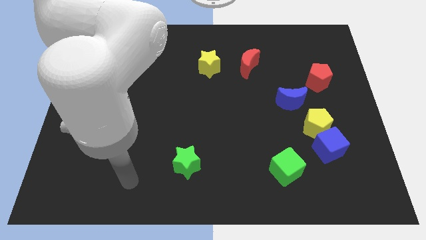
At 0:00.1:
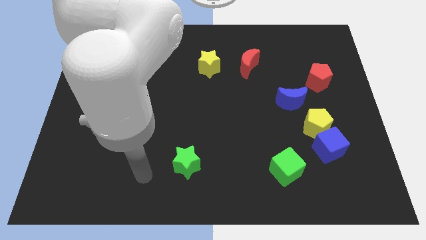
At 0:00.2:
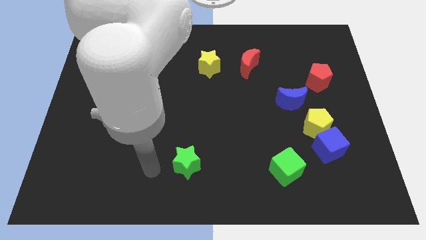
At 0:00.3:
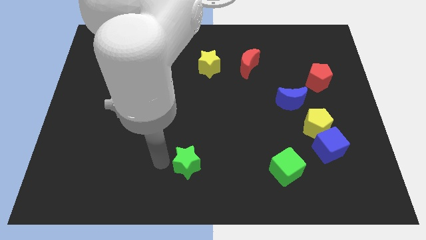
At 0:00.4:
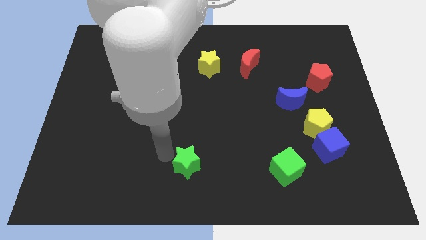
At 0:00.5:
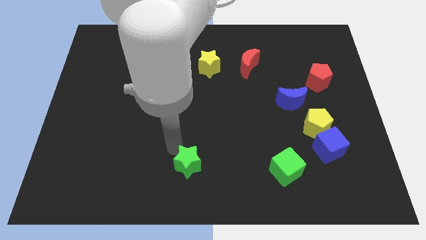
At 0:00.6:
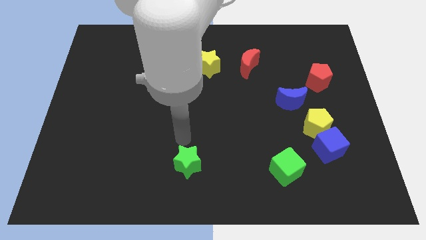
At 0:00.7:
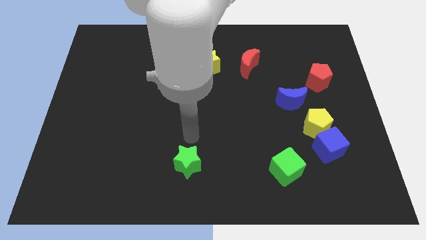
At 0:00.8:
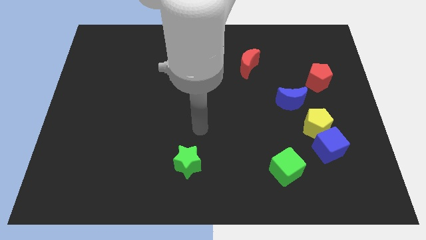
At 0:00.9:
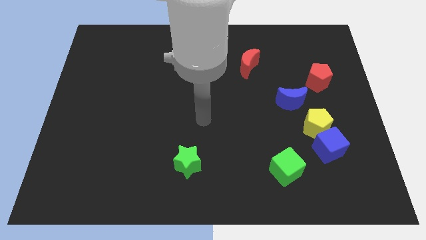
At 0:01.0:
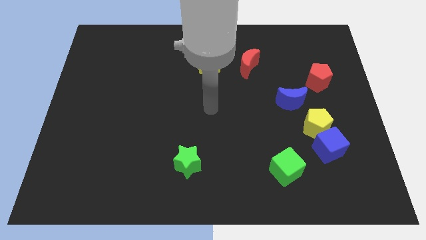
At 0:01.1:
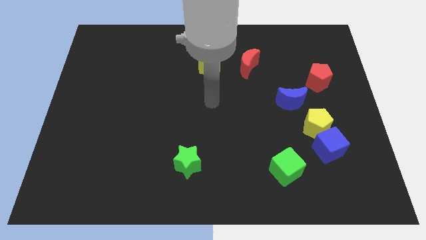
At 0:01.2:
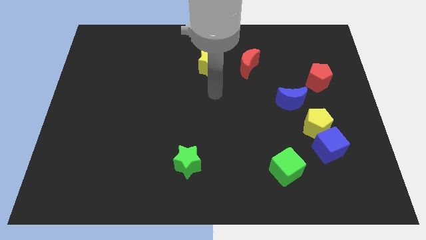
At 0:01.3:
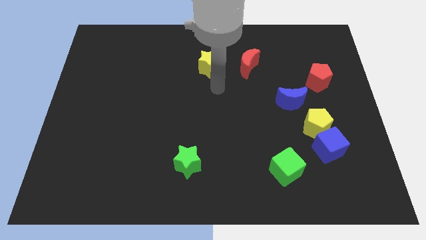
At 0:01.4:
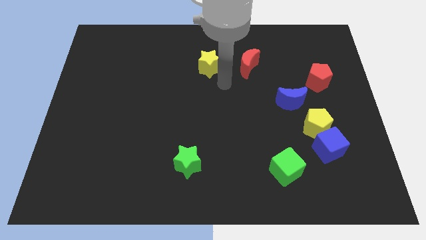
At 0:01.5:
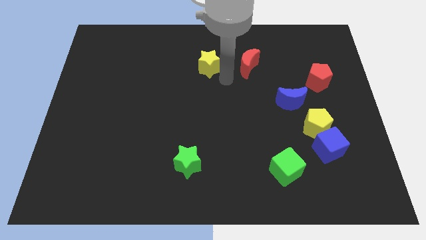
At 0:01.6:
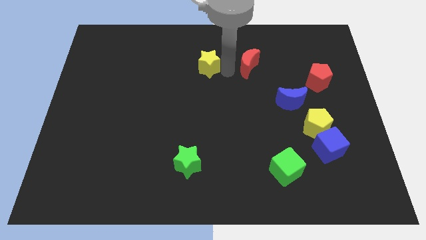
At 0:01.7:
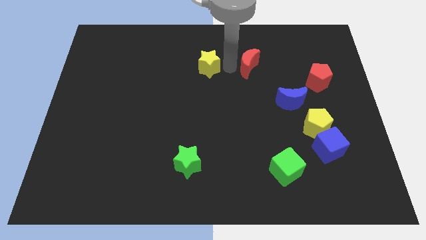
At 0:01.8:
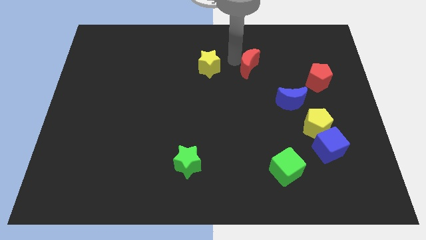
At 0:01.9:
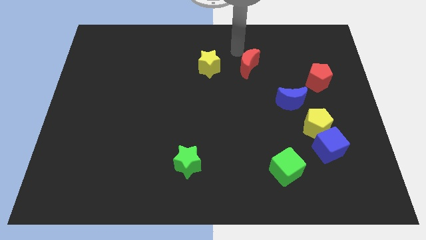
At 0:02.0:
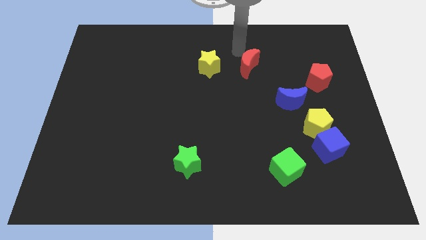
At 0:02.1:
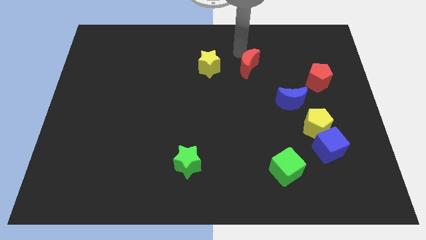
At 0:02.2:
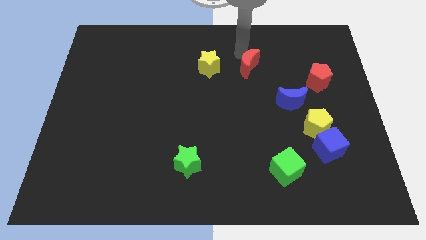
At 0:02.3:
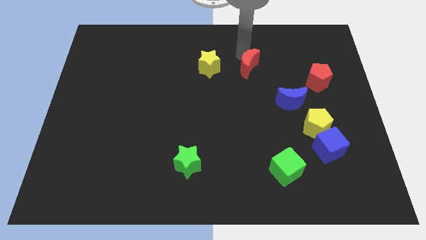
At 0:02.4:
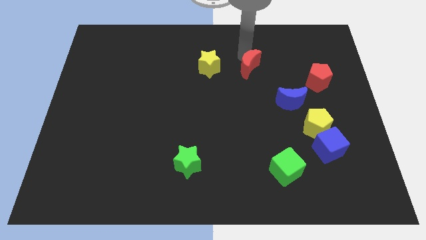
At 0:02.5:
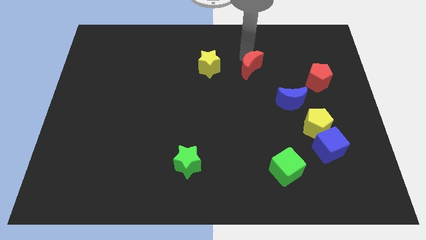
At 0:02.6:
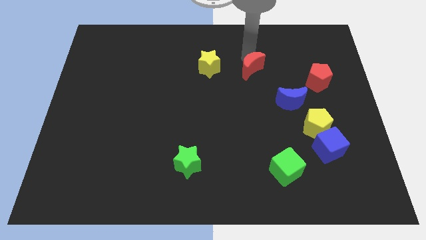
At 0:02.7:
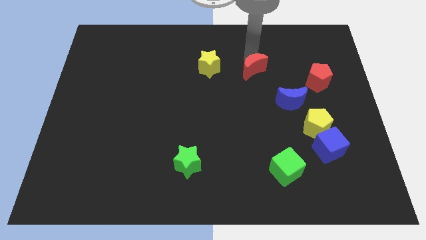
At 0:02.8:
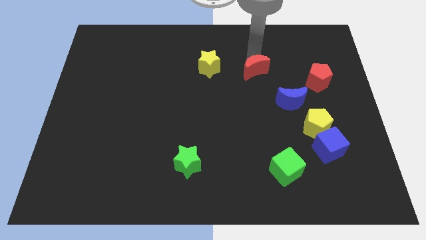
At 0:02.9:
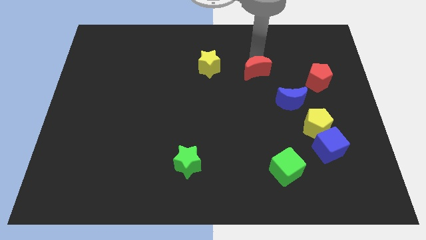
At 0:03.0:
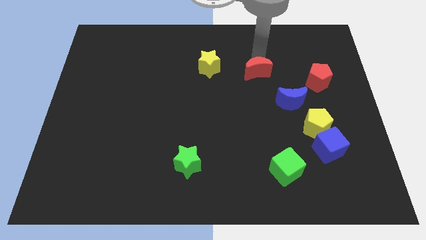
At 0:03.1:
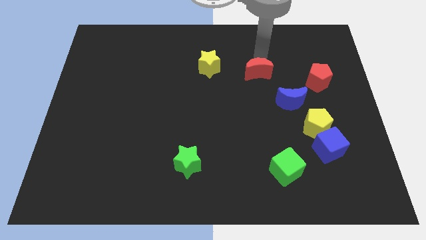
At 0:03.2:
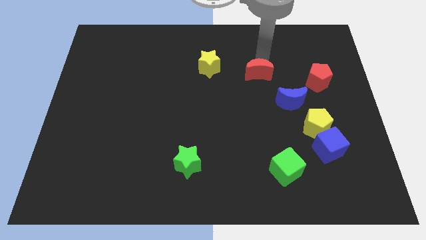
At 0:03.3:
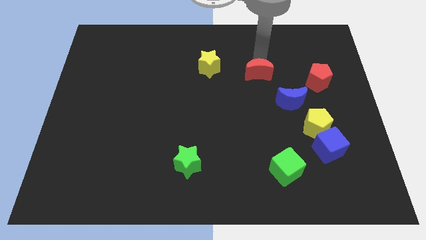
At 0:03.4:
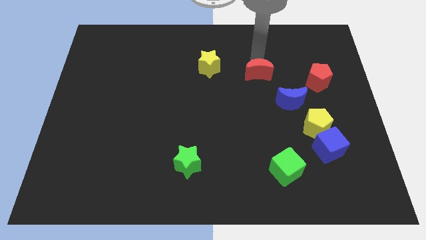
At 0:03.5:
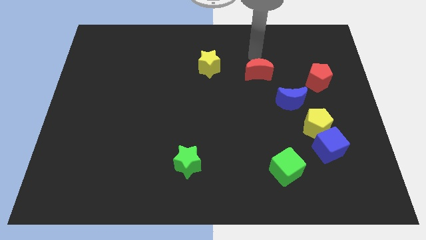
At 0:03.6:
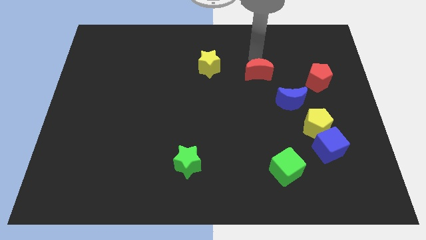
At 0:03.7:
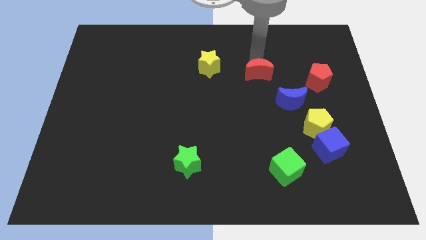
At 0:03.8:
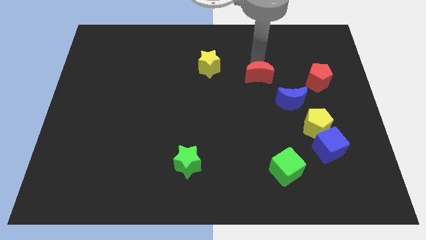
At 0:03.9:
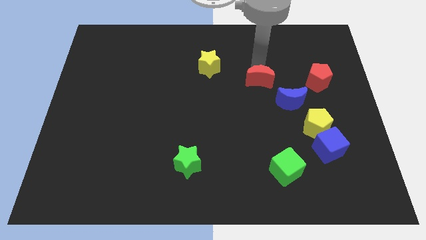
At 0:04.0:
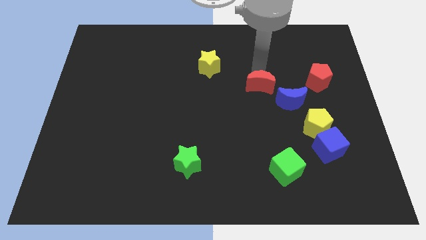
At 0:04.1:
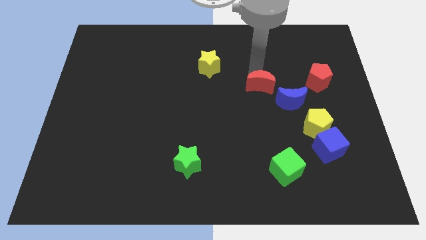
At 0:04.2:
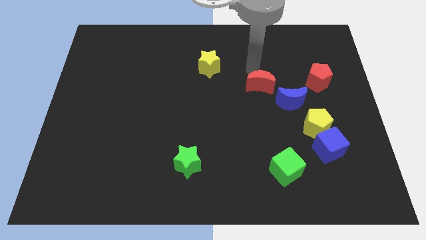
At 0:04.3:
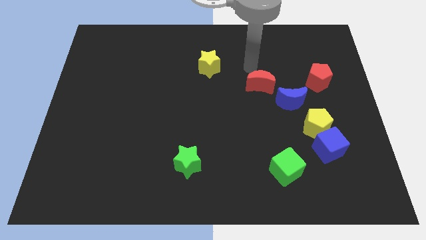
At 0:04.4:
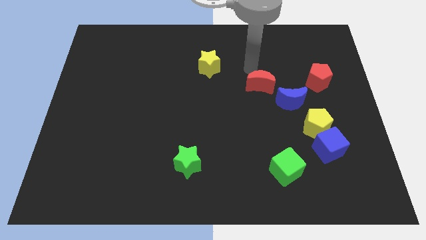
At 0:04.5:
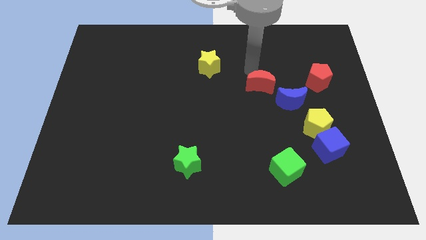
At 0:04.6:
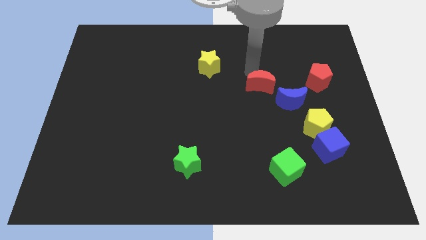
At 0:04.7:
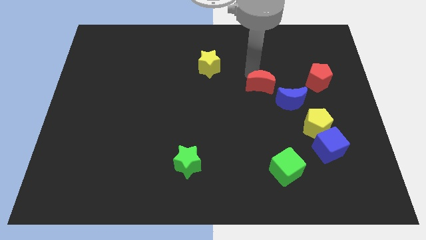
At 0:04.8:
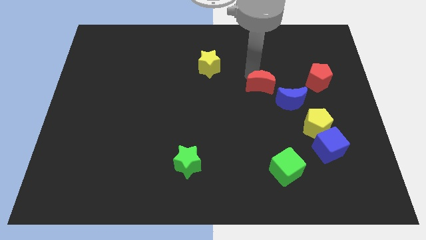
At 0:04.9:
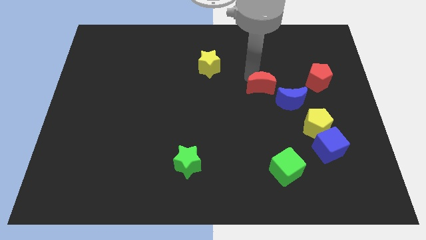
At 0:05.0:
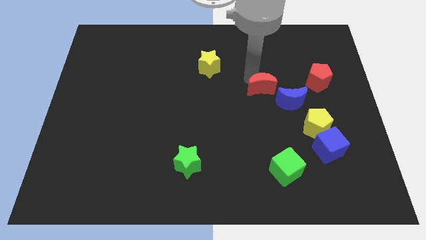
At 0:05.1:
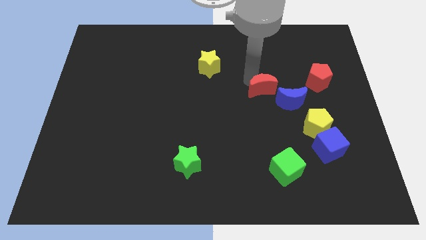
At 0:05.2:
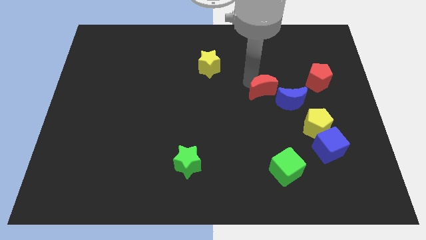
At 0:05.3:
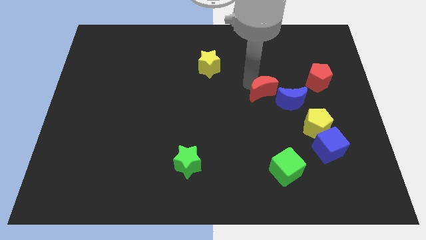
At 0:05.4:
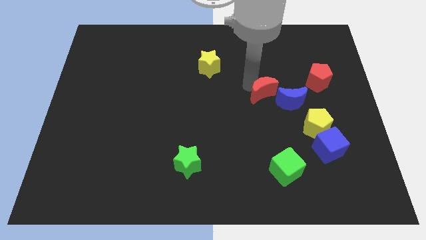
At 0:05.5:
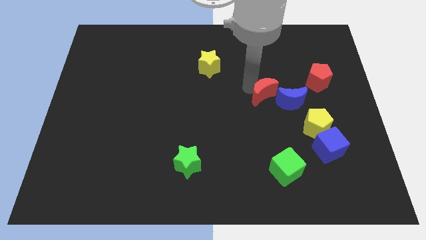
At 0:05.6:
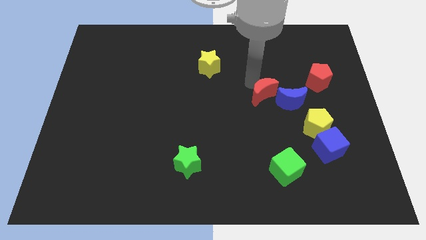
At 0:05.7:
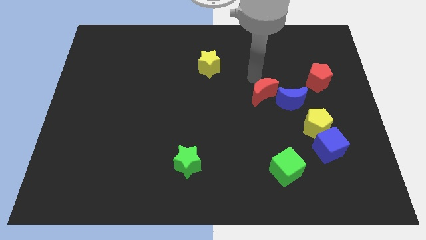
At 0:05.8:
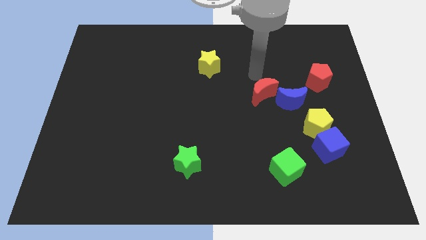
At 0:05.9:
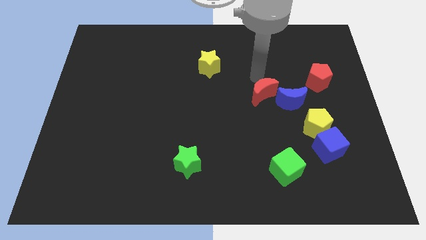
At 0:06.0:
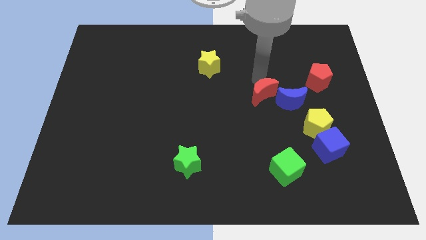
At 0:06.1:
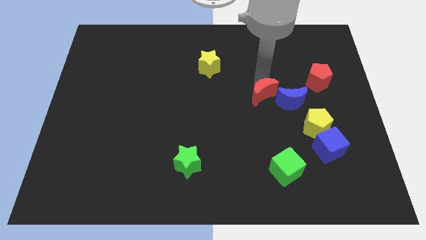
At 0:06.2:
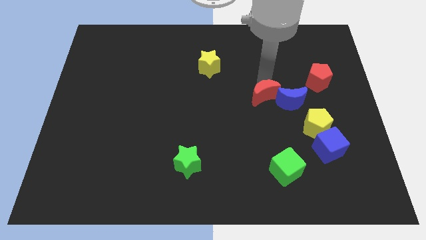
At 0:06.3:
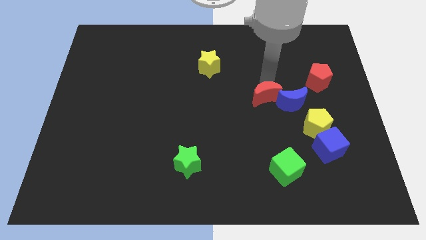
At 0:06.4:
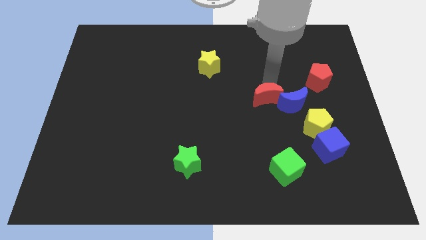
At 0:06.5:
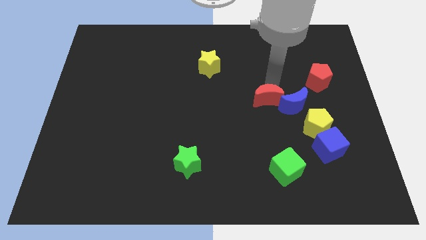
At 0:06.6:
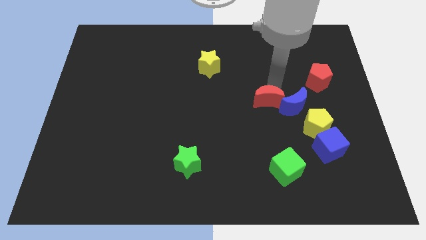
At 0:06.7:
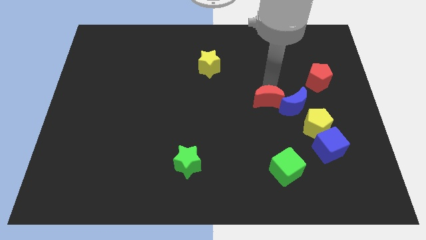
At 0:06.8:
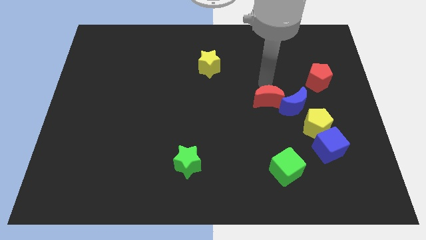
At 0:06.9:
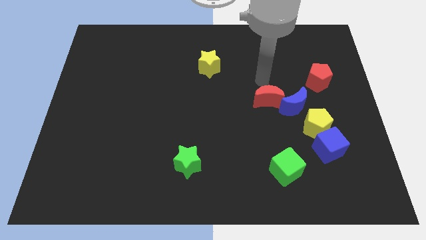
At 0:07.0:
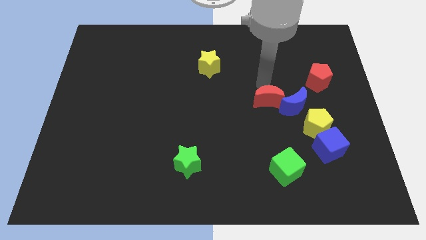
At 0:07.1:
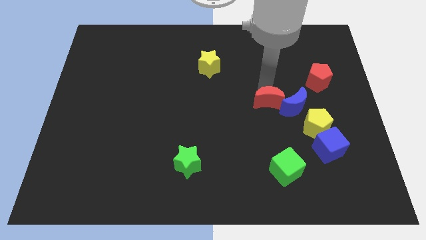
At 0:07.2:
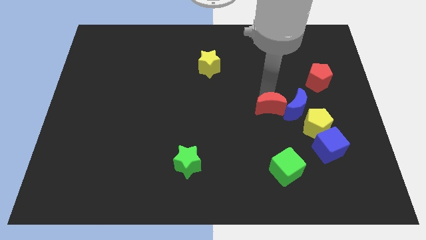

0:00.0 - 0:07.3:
move the red moon to the bottom left of the blue moon
